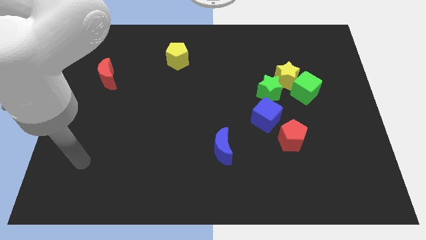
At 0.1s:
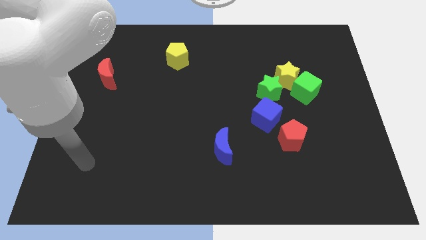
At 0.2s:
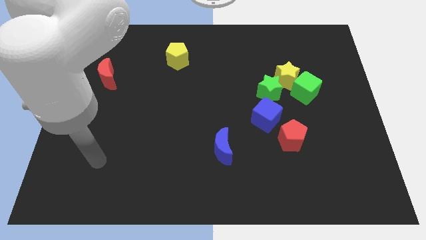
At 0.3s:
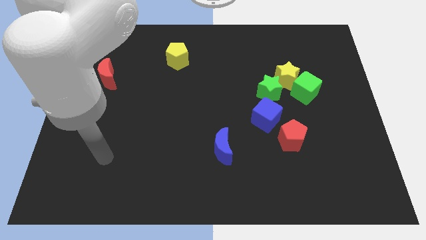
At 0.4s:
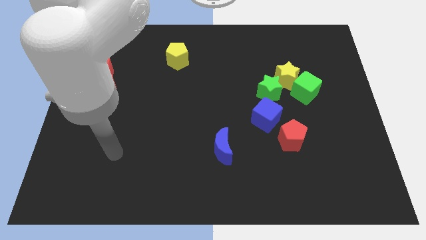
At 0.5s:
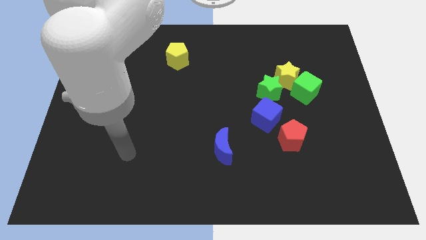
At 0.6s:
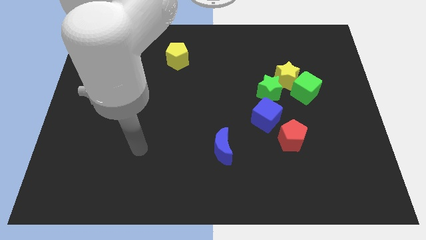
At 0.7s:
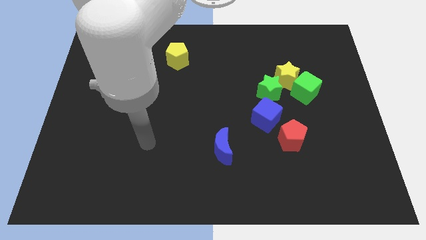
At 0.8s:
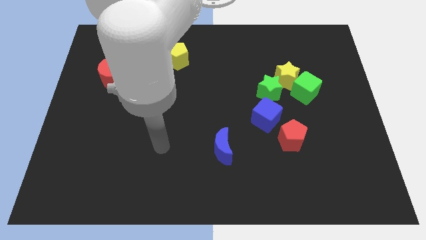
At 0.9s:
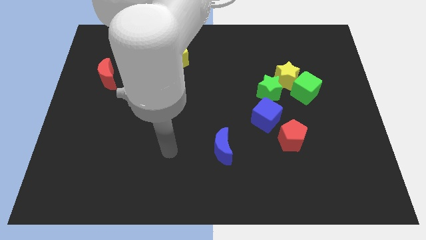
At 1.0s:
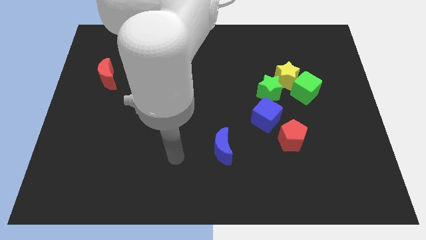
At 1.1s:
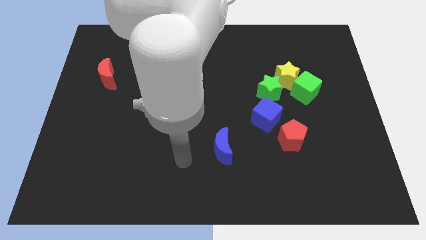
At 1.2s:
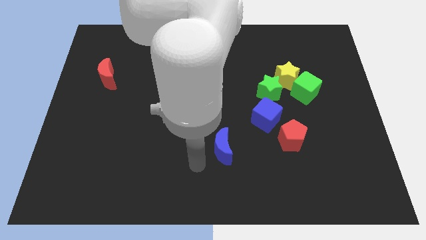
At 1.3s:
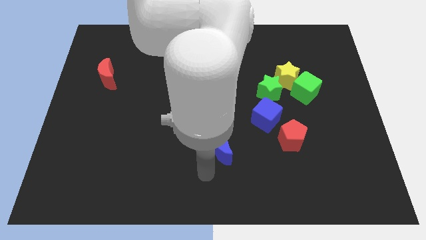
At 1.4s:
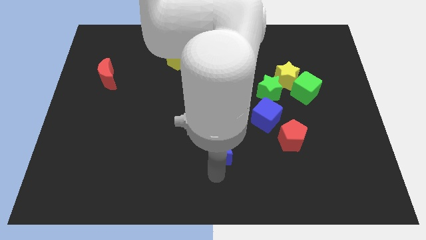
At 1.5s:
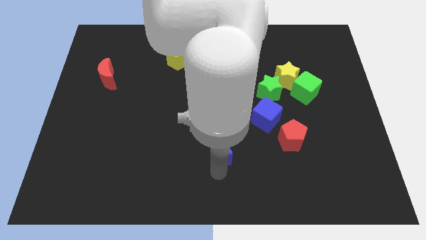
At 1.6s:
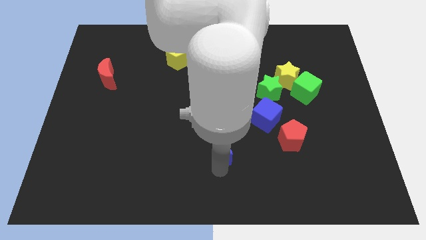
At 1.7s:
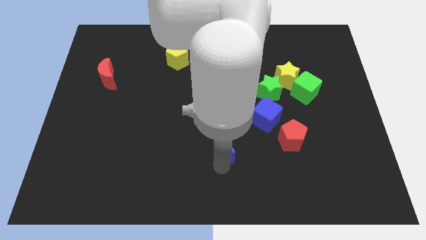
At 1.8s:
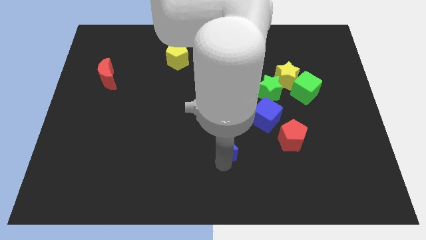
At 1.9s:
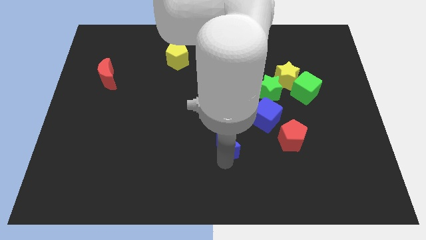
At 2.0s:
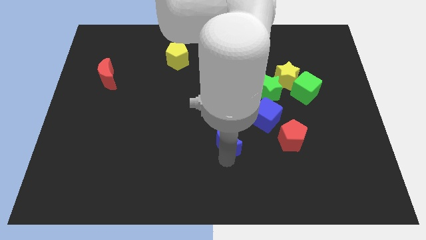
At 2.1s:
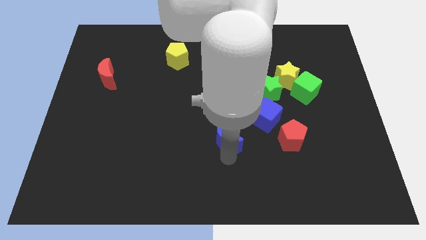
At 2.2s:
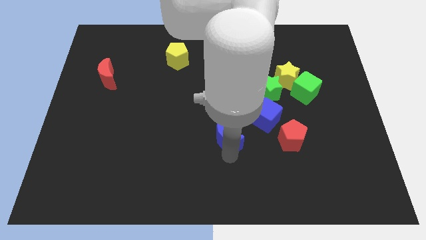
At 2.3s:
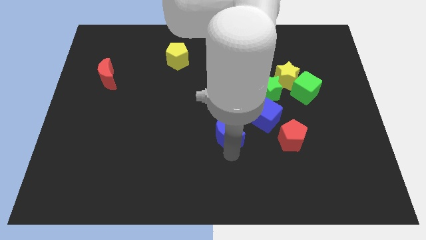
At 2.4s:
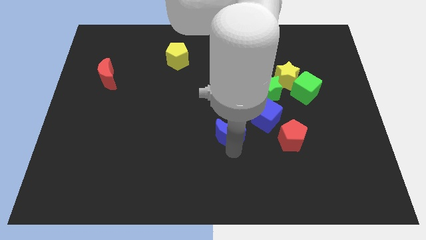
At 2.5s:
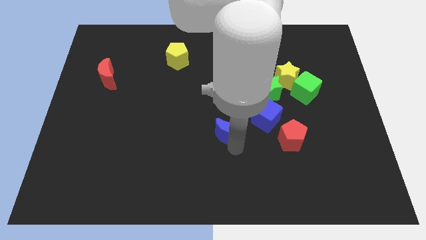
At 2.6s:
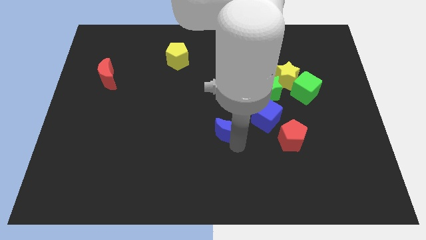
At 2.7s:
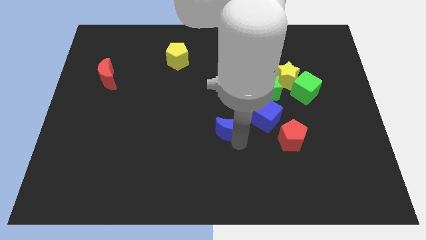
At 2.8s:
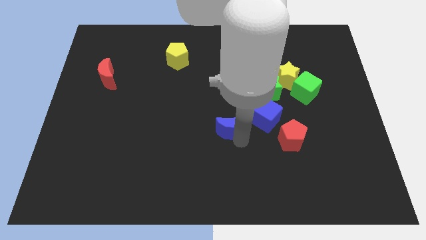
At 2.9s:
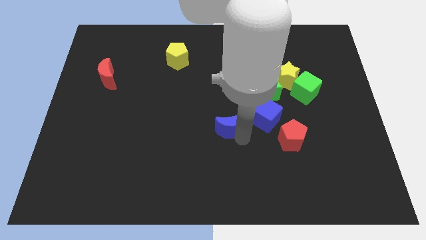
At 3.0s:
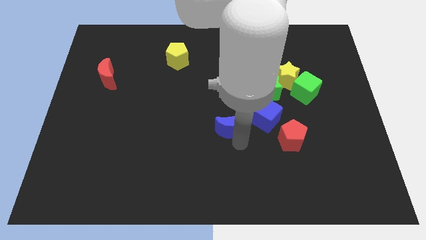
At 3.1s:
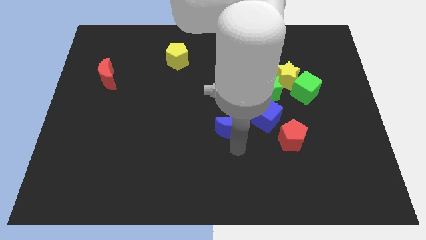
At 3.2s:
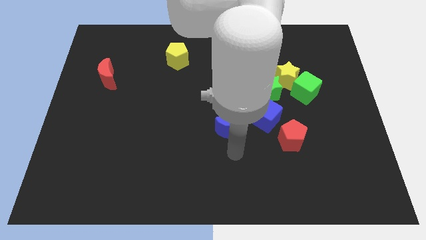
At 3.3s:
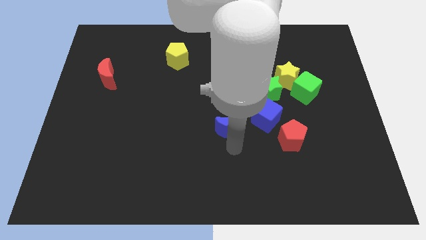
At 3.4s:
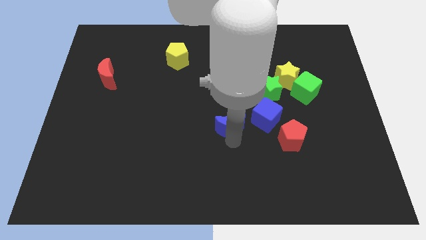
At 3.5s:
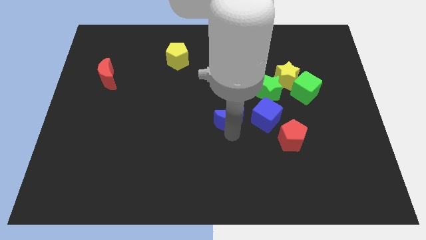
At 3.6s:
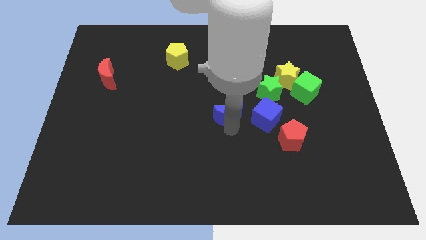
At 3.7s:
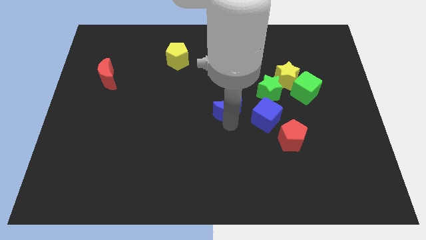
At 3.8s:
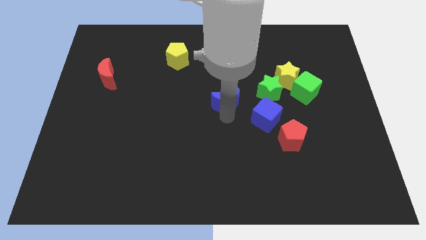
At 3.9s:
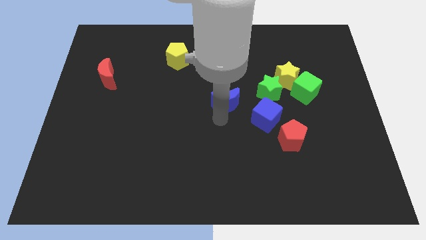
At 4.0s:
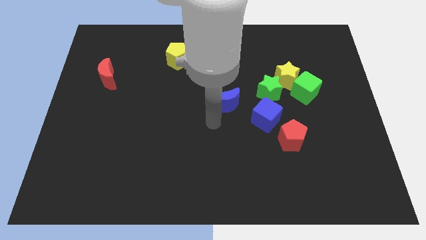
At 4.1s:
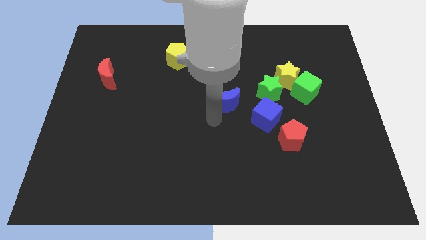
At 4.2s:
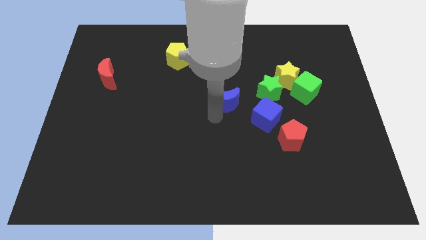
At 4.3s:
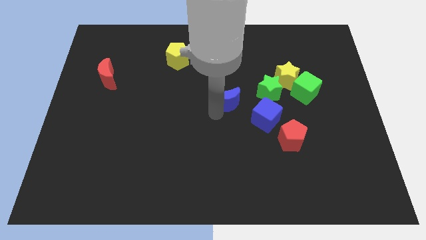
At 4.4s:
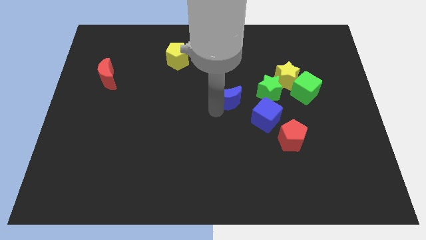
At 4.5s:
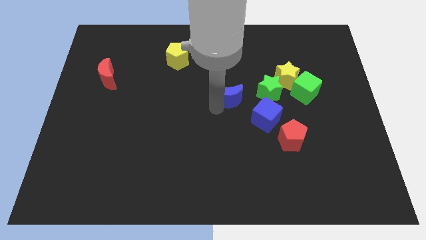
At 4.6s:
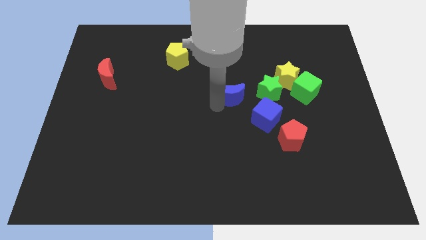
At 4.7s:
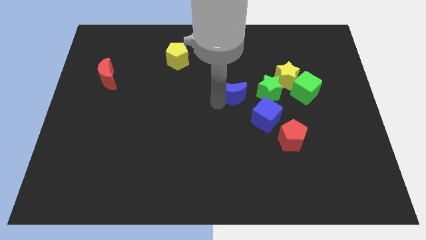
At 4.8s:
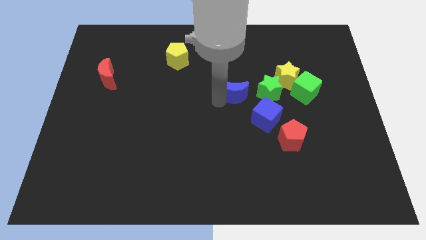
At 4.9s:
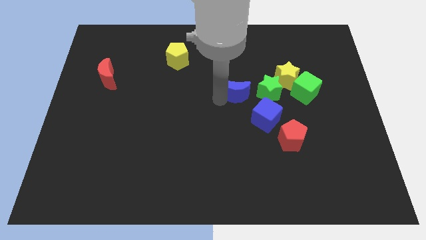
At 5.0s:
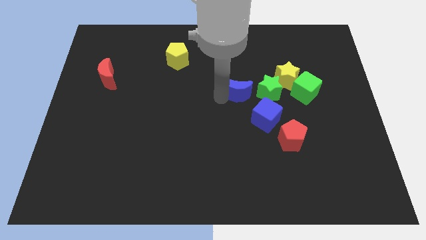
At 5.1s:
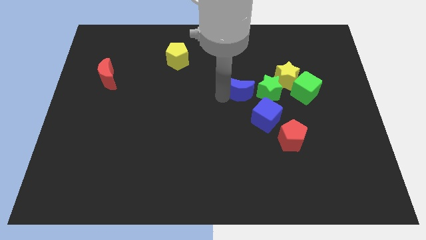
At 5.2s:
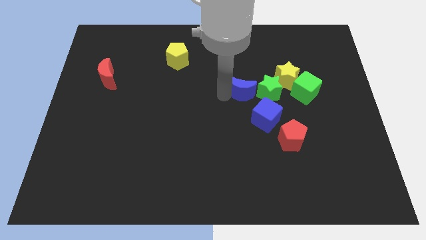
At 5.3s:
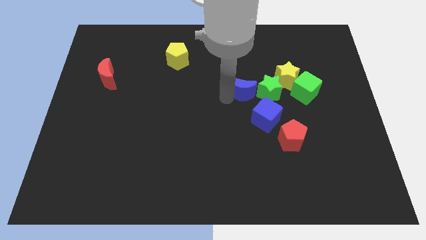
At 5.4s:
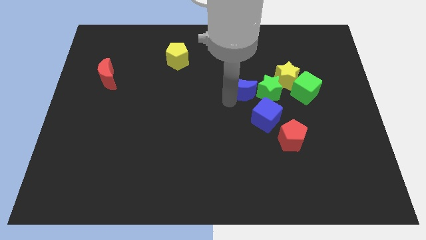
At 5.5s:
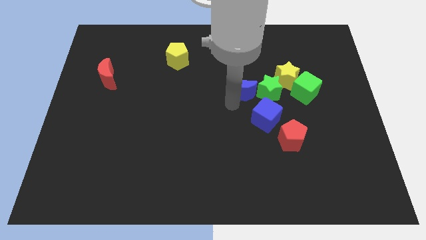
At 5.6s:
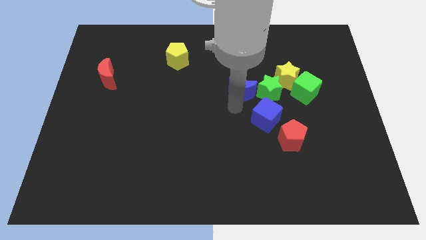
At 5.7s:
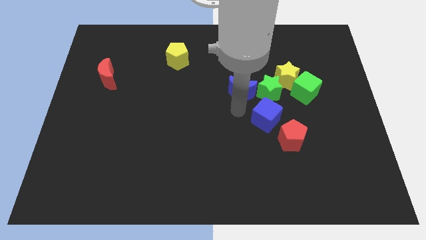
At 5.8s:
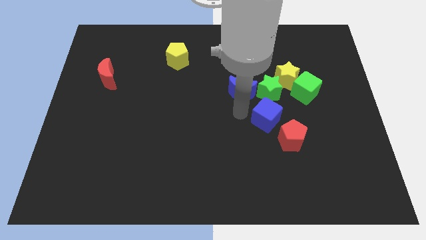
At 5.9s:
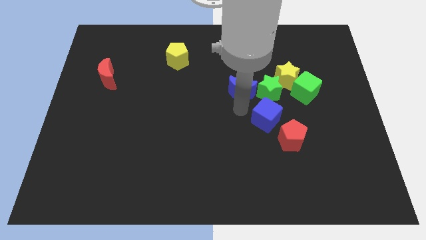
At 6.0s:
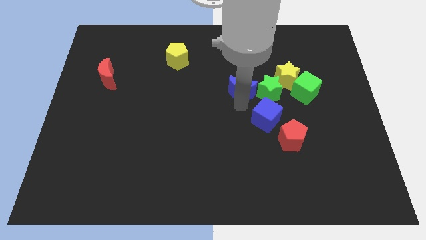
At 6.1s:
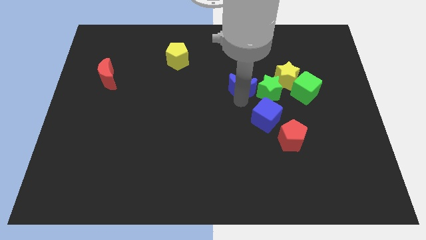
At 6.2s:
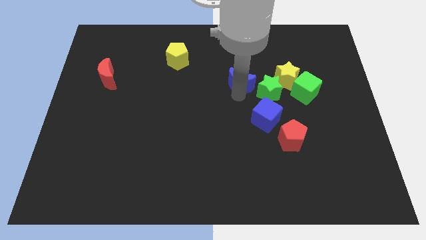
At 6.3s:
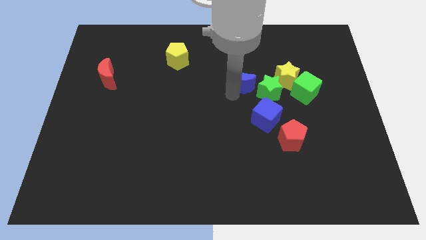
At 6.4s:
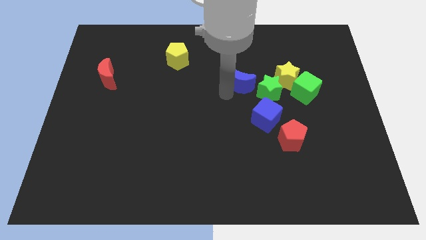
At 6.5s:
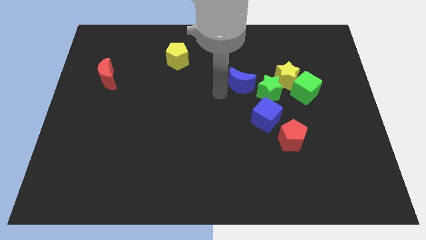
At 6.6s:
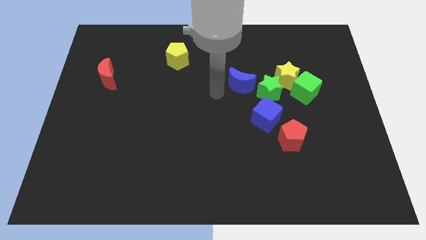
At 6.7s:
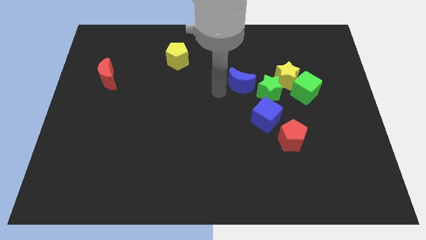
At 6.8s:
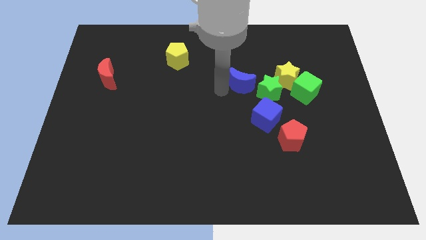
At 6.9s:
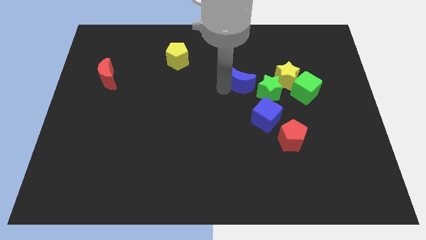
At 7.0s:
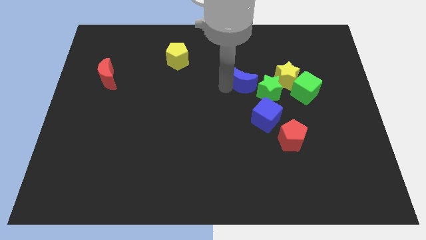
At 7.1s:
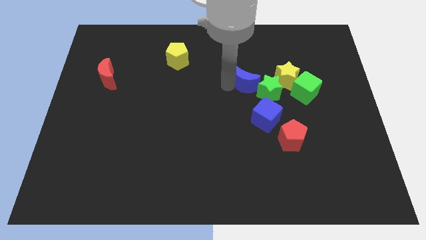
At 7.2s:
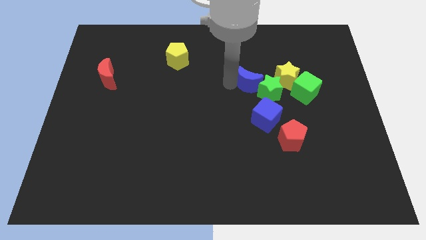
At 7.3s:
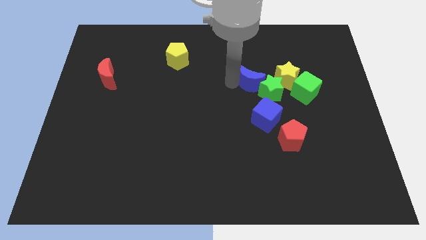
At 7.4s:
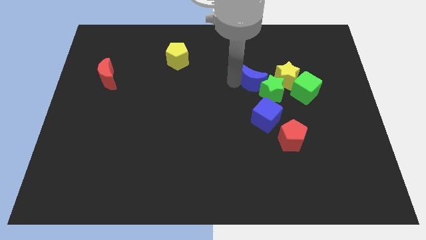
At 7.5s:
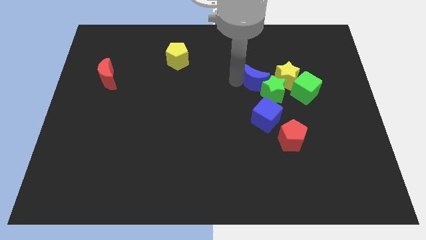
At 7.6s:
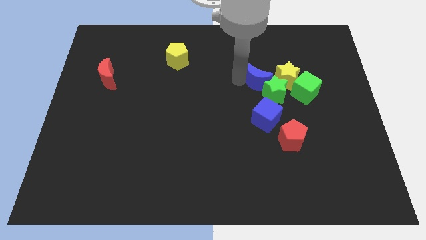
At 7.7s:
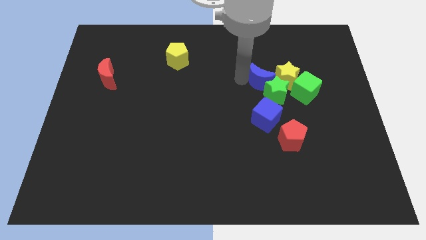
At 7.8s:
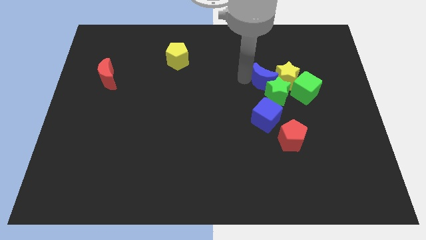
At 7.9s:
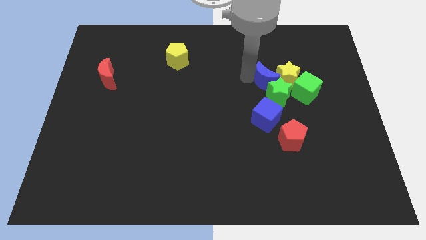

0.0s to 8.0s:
slide the blue moon upwards and right diagonally
